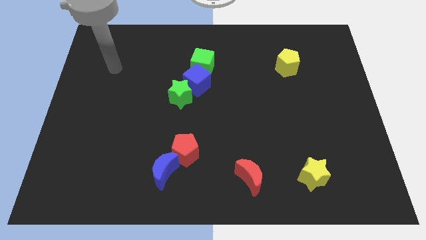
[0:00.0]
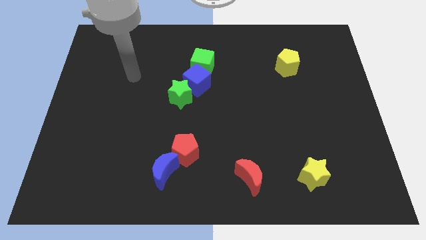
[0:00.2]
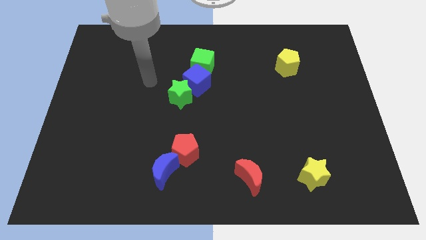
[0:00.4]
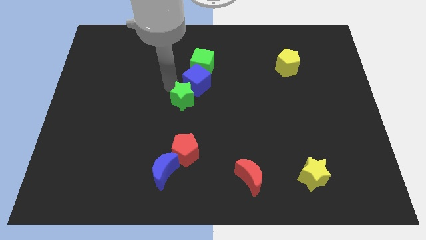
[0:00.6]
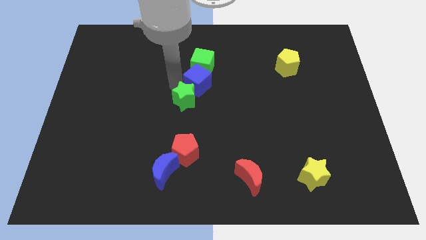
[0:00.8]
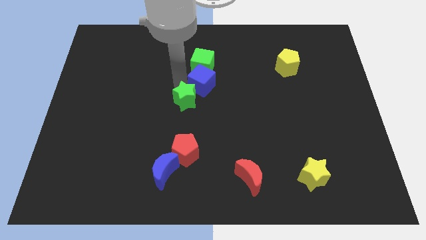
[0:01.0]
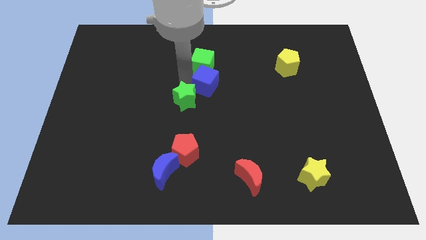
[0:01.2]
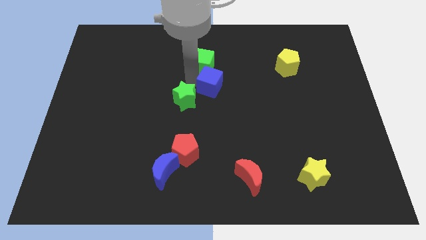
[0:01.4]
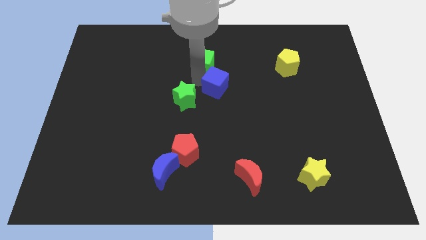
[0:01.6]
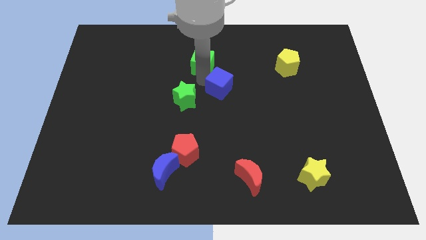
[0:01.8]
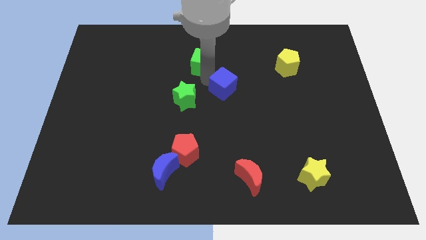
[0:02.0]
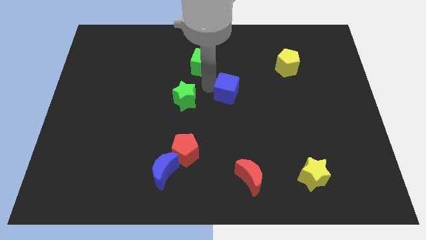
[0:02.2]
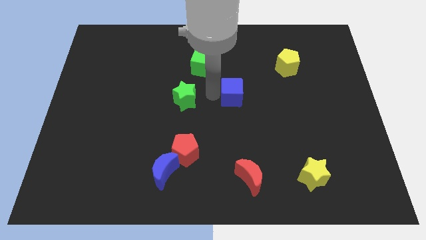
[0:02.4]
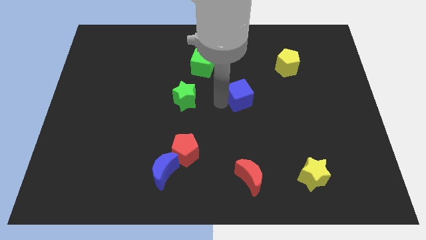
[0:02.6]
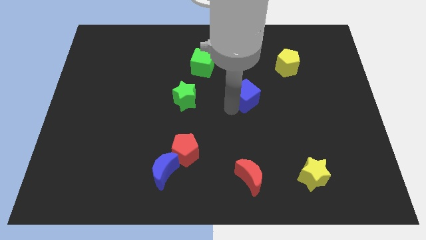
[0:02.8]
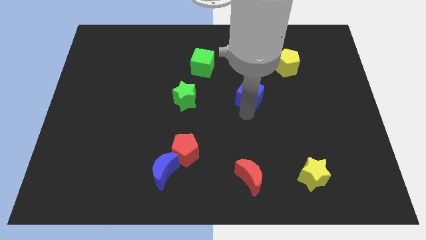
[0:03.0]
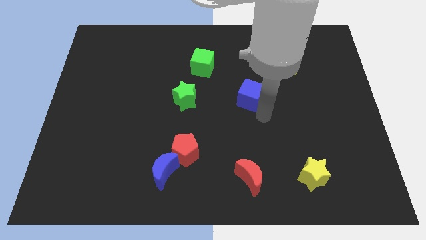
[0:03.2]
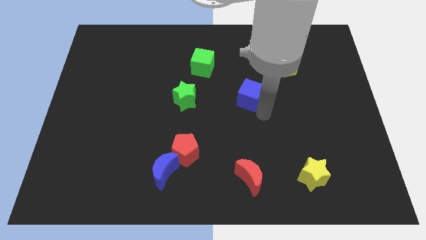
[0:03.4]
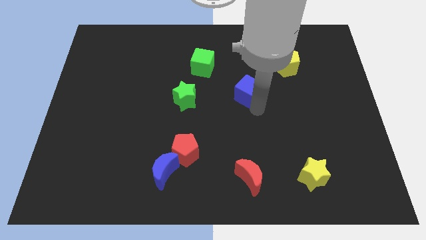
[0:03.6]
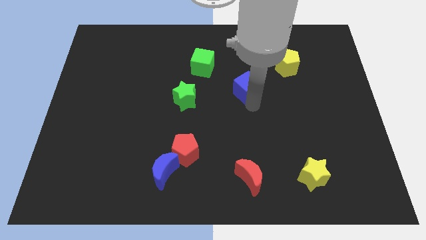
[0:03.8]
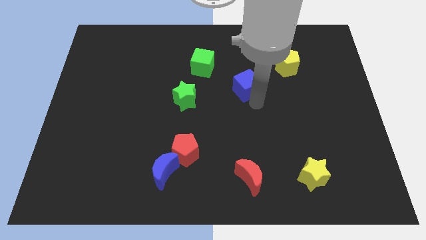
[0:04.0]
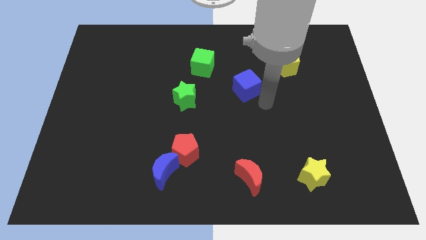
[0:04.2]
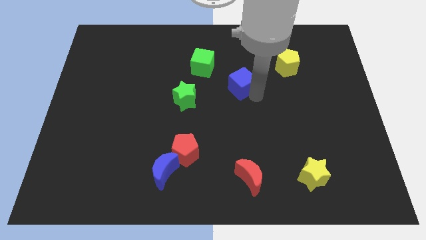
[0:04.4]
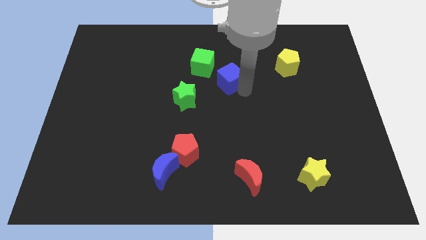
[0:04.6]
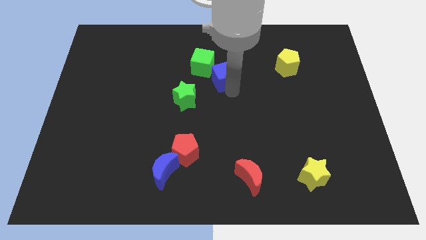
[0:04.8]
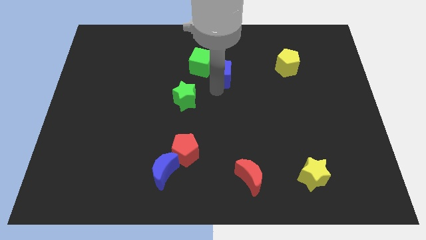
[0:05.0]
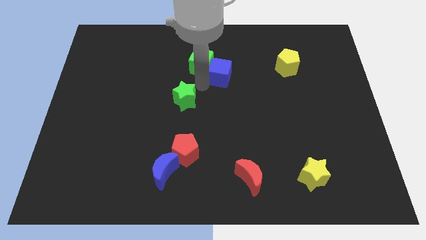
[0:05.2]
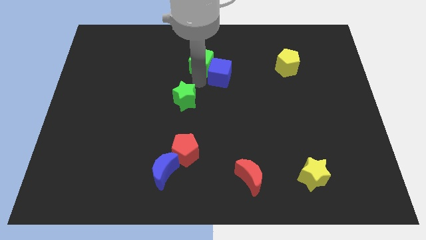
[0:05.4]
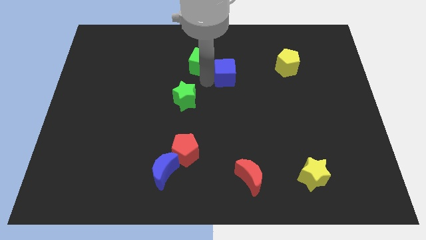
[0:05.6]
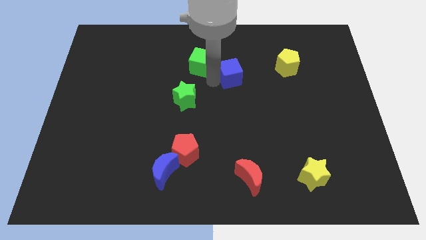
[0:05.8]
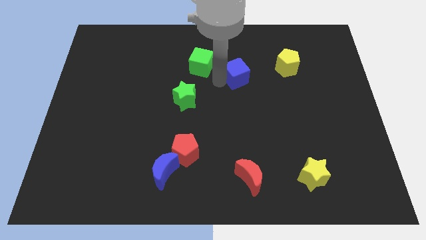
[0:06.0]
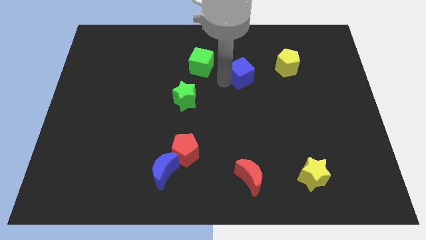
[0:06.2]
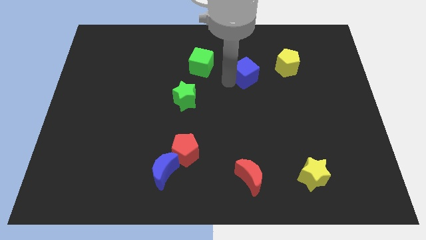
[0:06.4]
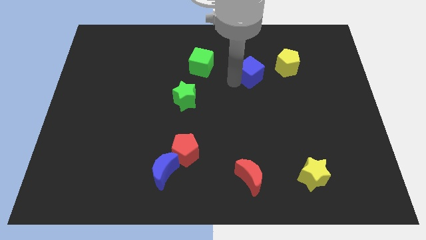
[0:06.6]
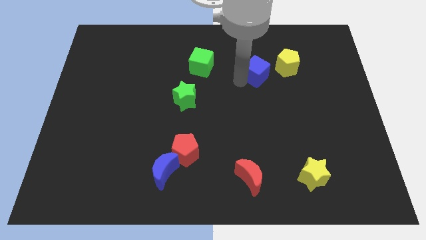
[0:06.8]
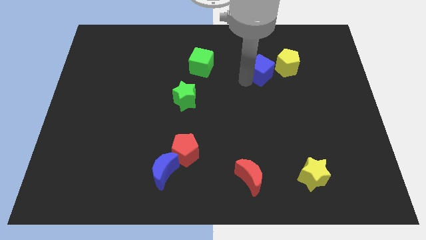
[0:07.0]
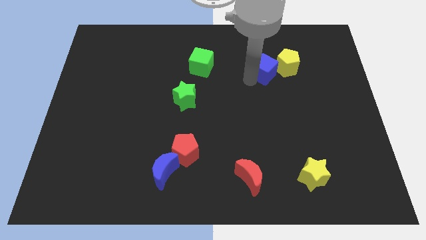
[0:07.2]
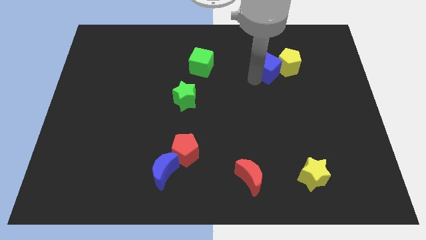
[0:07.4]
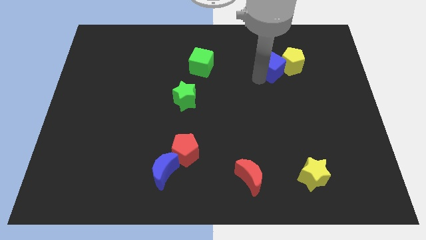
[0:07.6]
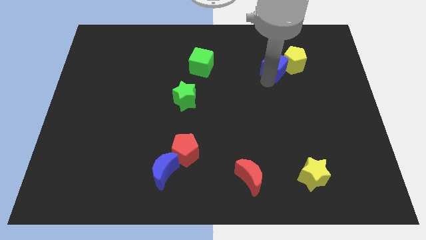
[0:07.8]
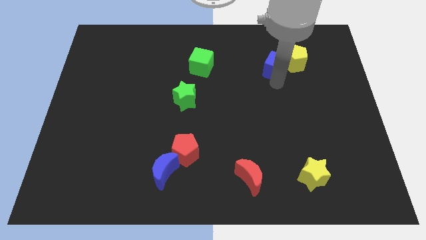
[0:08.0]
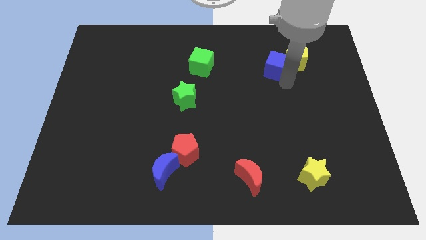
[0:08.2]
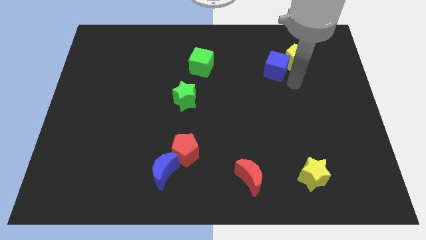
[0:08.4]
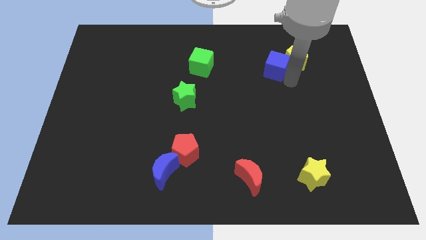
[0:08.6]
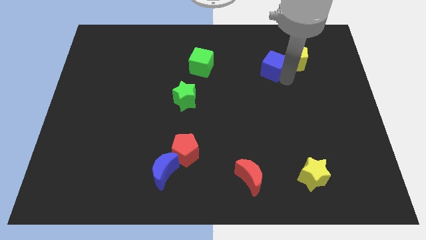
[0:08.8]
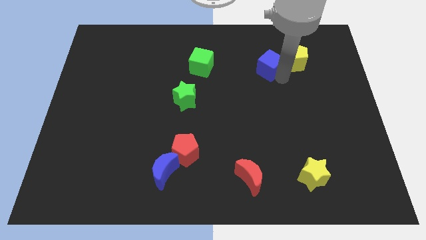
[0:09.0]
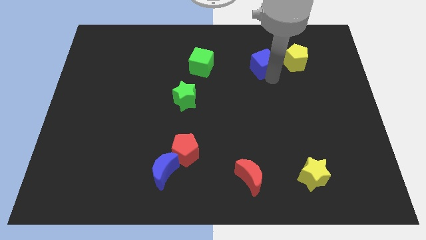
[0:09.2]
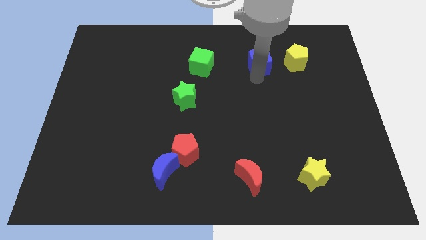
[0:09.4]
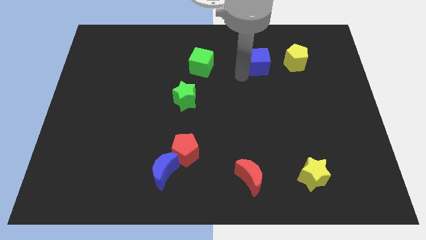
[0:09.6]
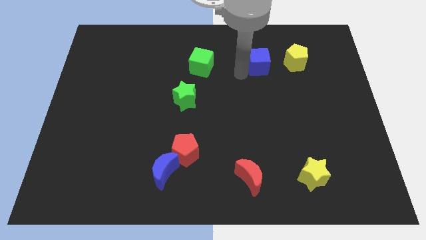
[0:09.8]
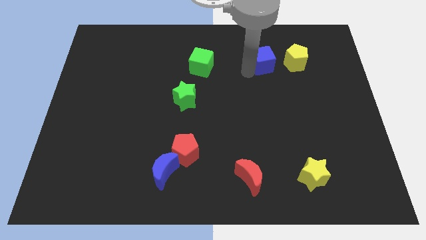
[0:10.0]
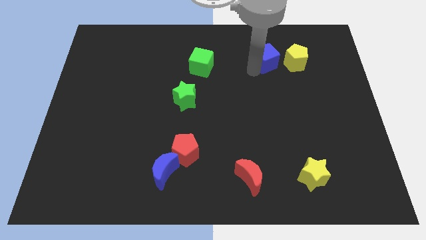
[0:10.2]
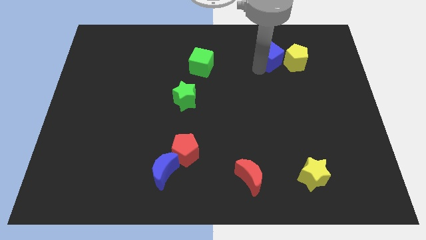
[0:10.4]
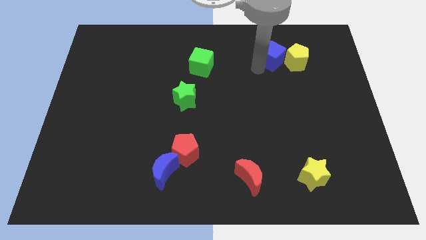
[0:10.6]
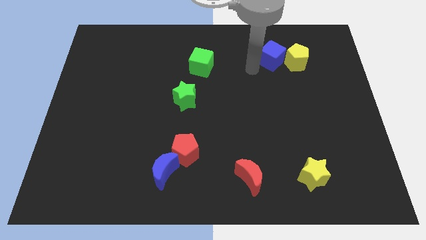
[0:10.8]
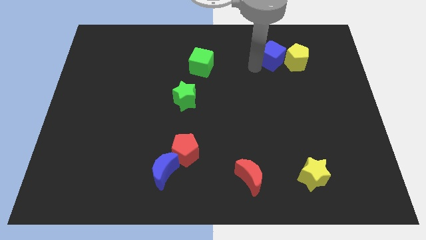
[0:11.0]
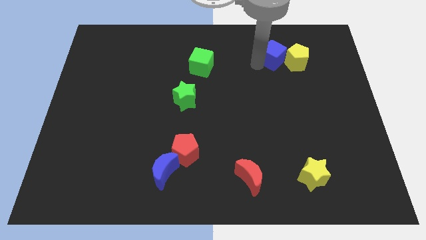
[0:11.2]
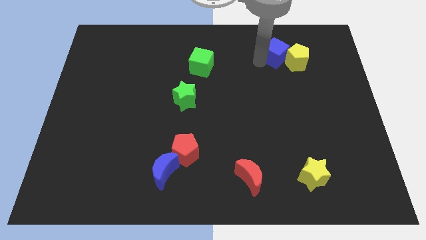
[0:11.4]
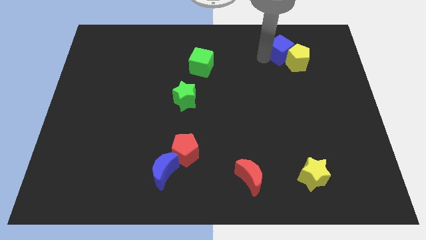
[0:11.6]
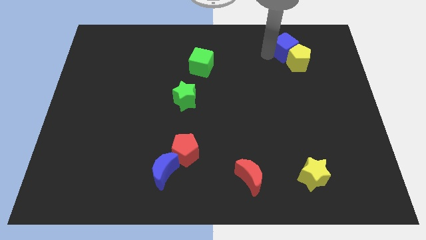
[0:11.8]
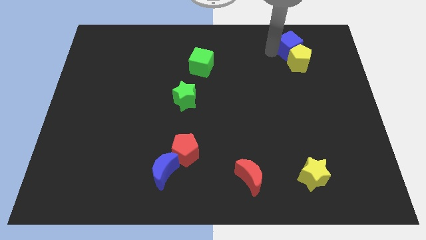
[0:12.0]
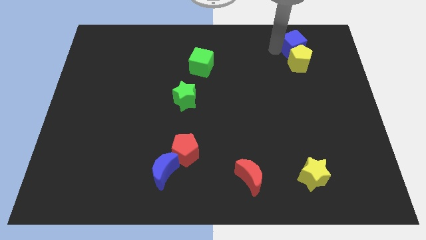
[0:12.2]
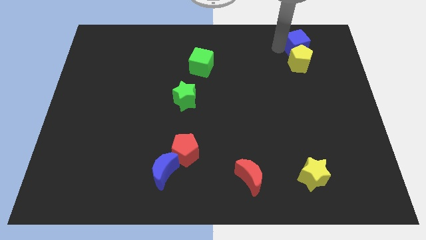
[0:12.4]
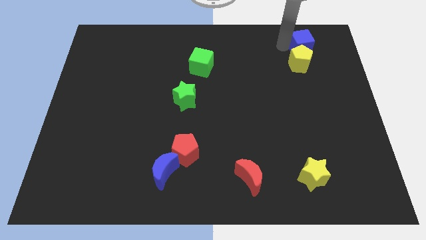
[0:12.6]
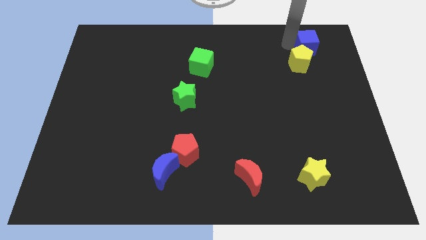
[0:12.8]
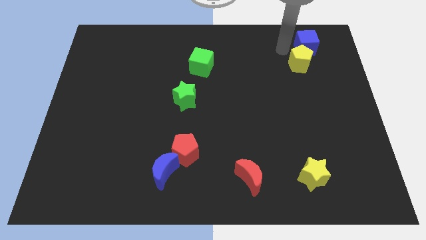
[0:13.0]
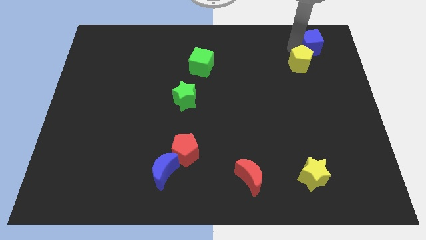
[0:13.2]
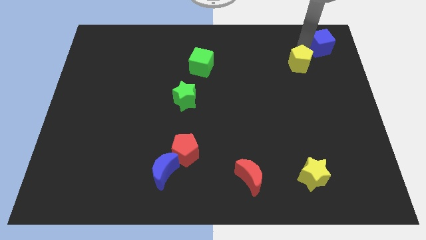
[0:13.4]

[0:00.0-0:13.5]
slide the blue cube to the top right

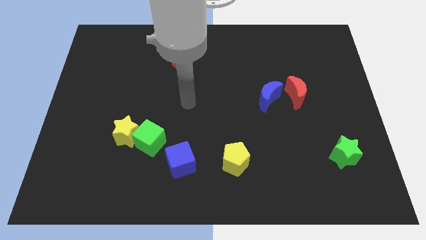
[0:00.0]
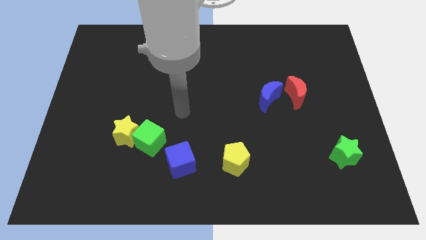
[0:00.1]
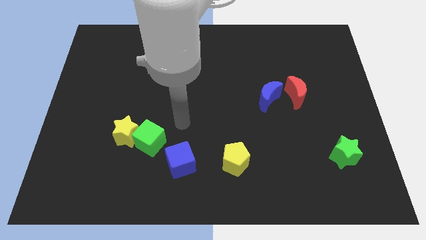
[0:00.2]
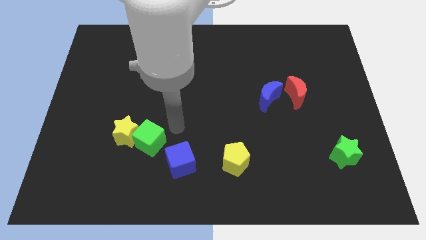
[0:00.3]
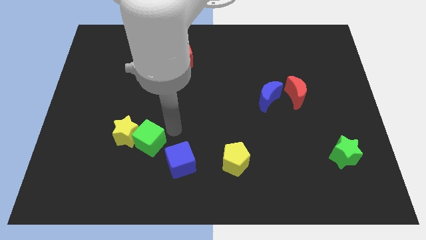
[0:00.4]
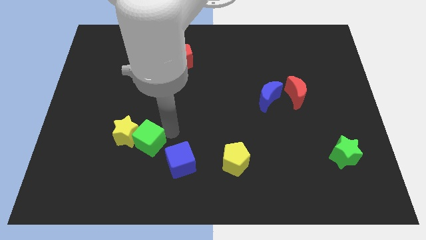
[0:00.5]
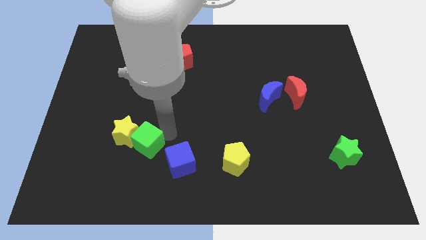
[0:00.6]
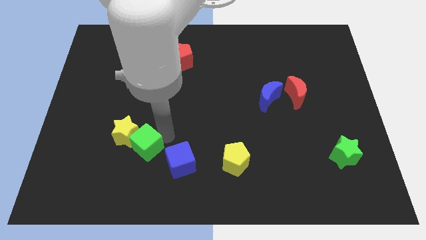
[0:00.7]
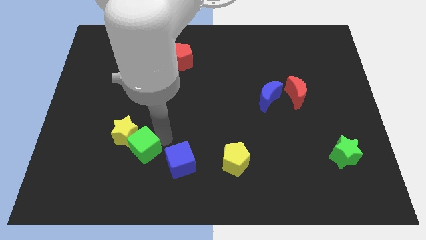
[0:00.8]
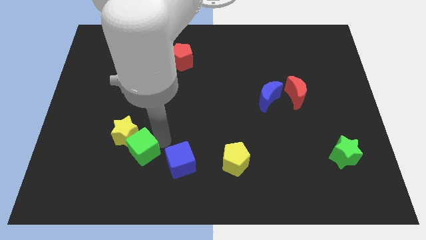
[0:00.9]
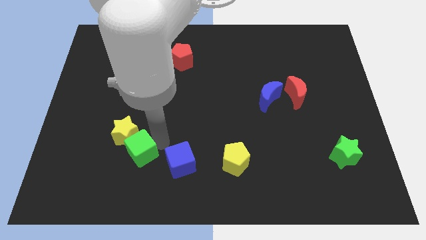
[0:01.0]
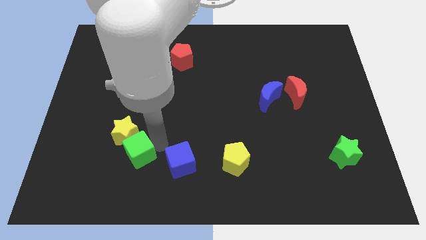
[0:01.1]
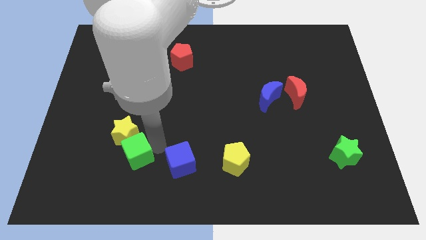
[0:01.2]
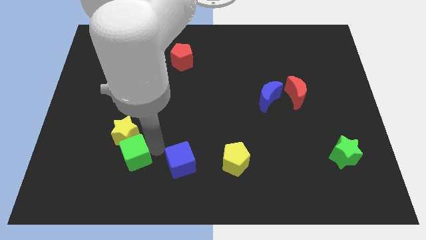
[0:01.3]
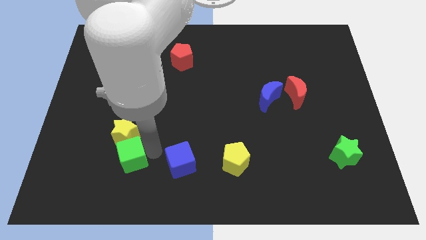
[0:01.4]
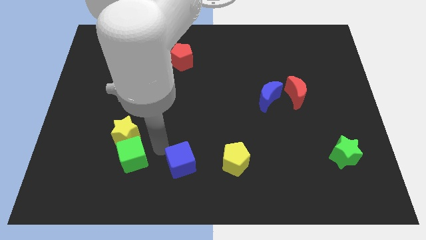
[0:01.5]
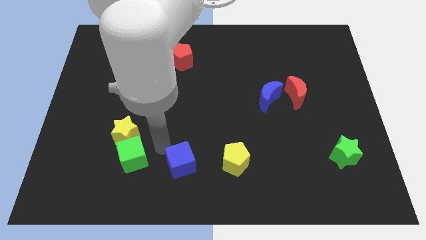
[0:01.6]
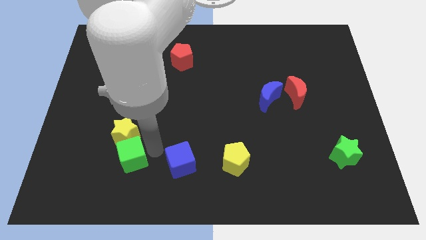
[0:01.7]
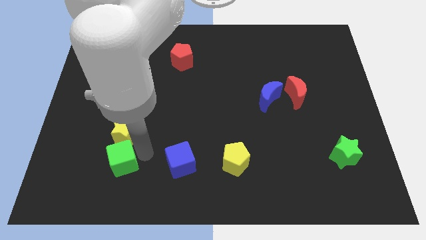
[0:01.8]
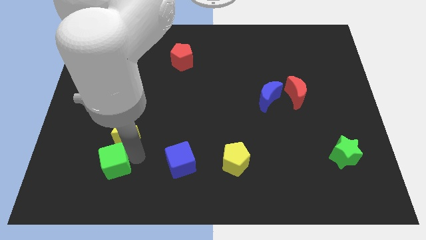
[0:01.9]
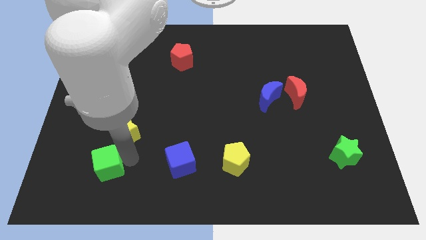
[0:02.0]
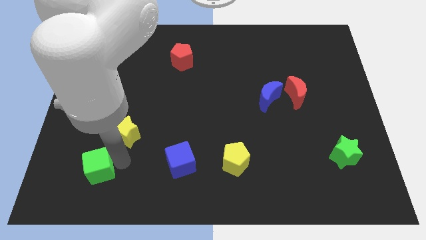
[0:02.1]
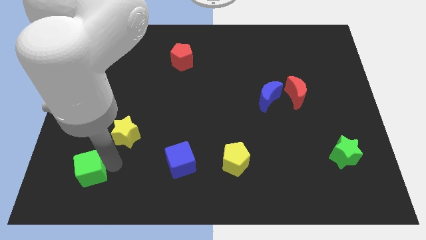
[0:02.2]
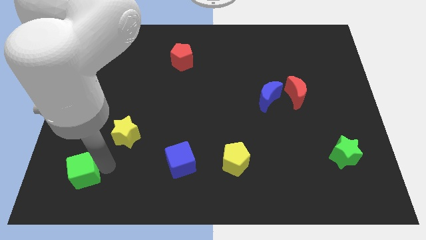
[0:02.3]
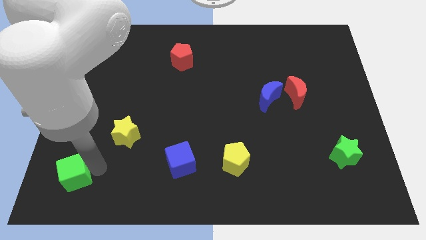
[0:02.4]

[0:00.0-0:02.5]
push the green cube to the lower left corner
